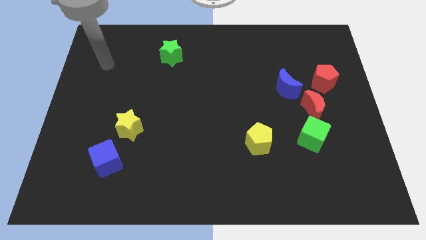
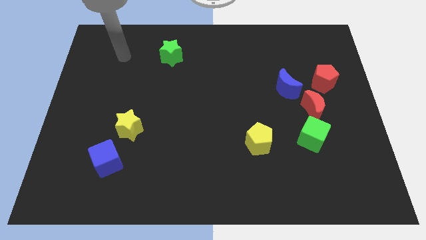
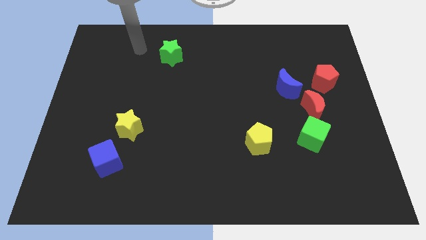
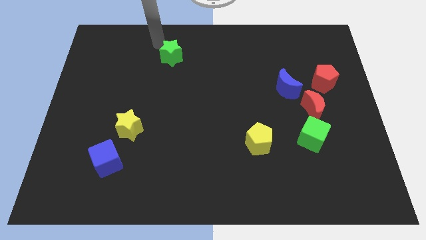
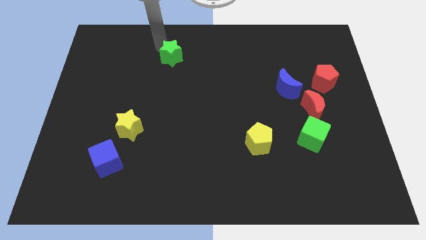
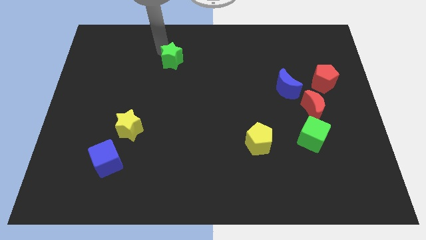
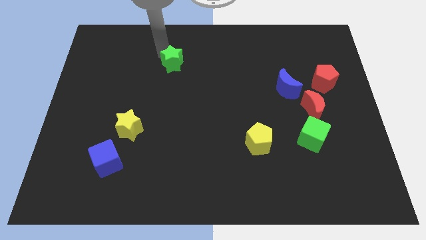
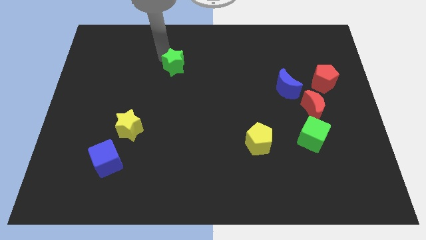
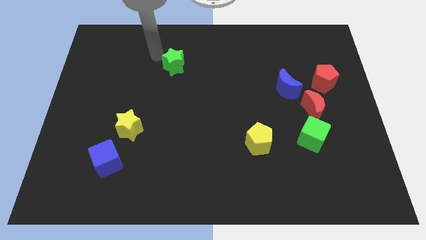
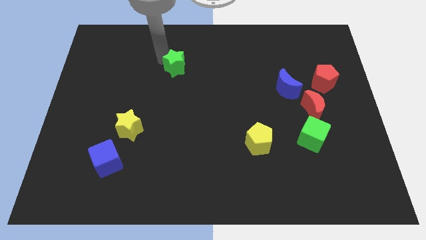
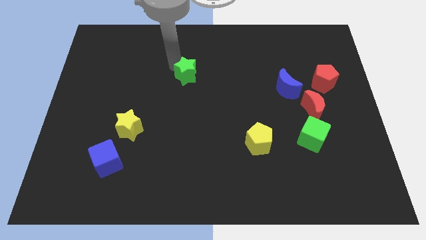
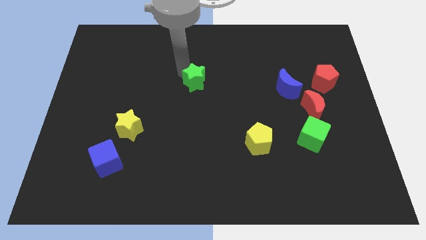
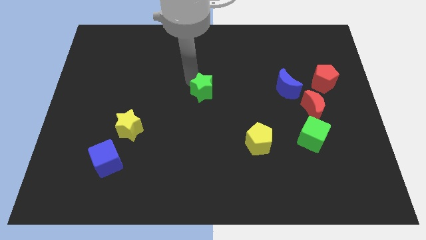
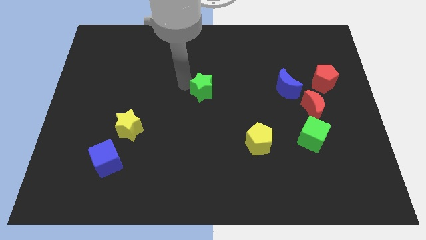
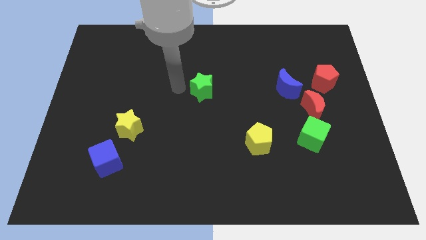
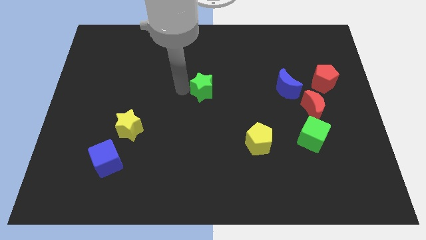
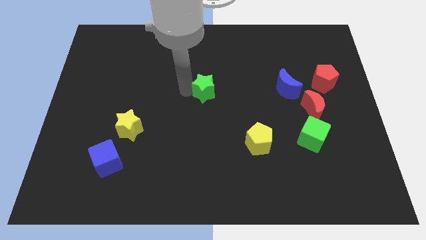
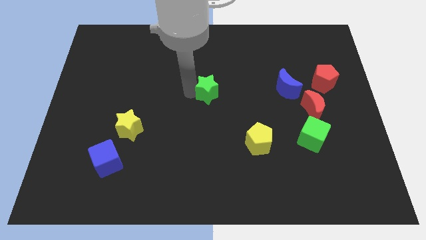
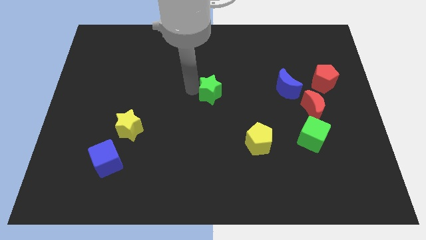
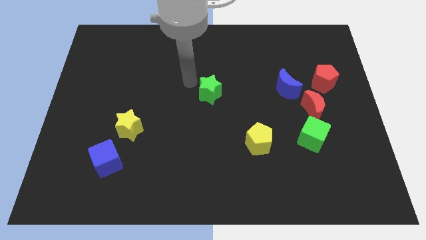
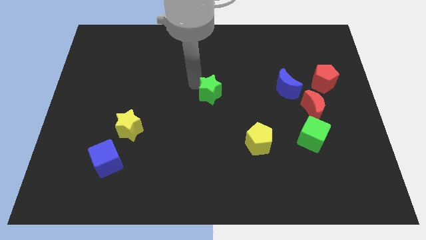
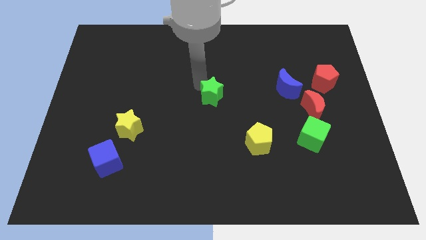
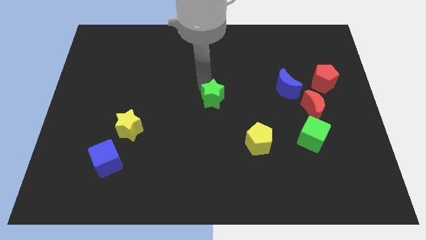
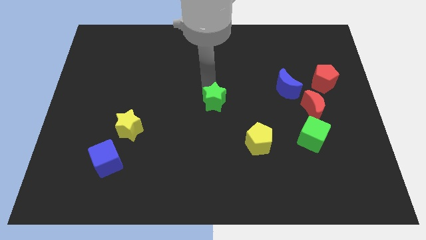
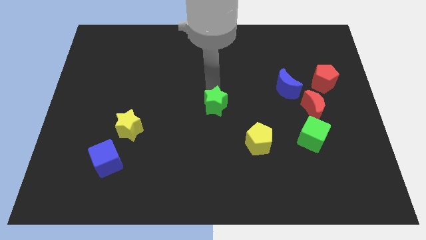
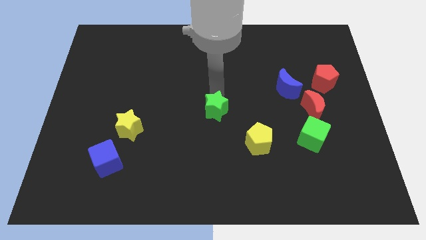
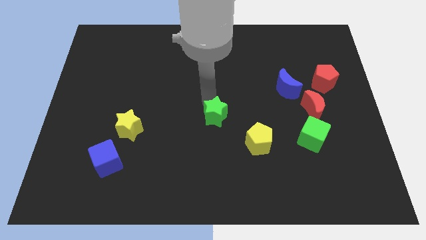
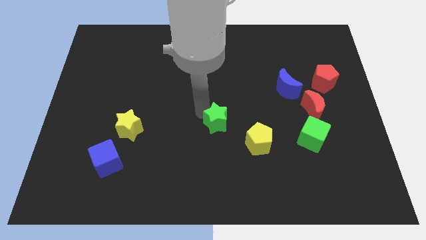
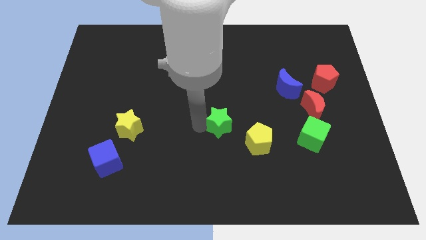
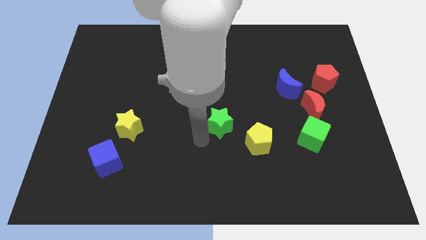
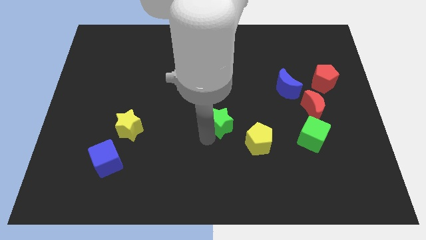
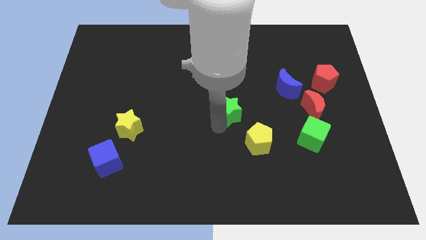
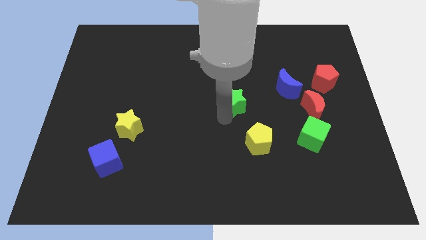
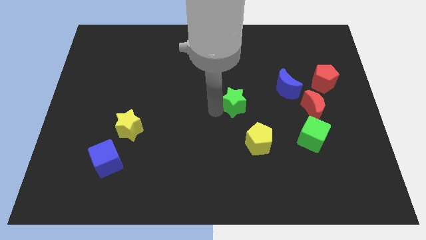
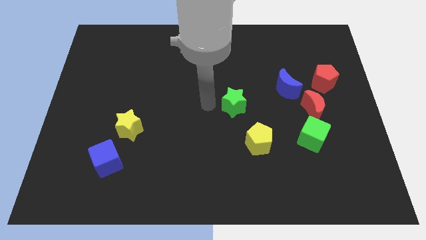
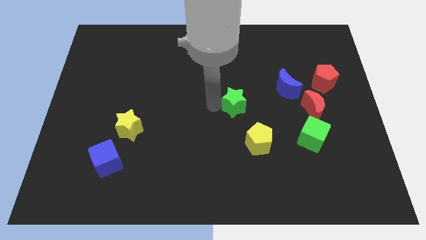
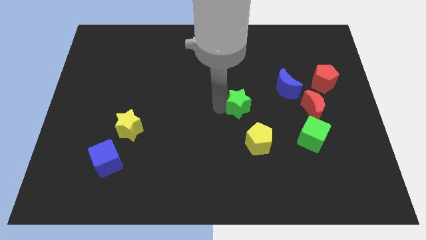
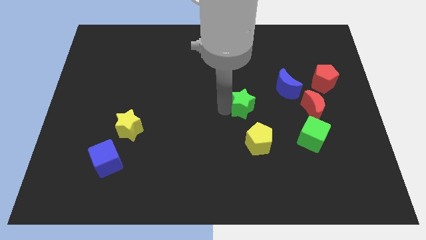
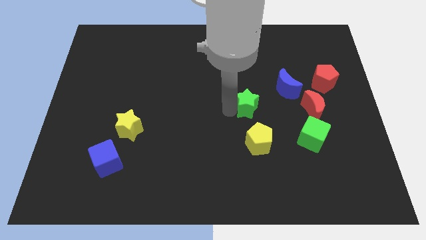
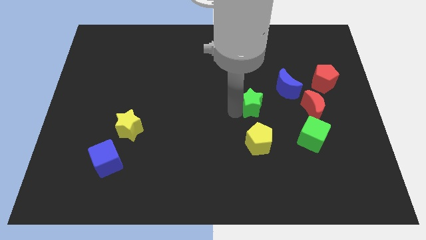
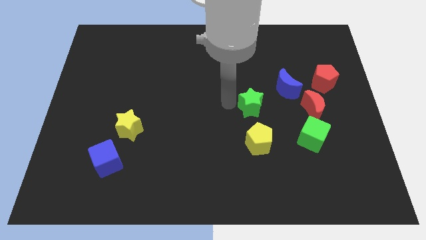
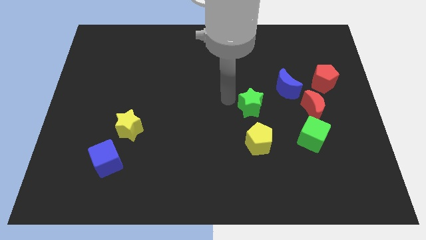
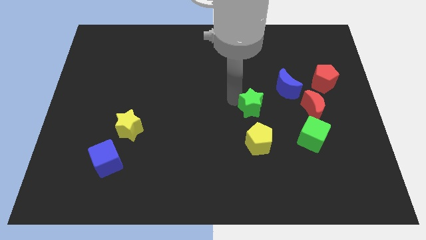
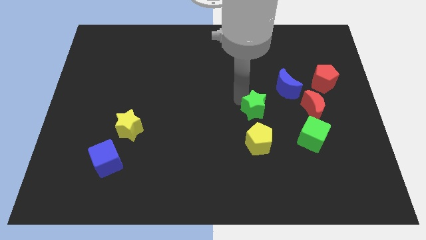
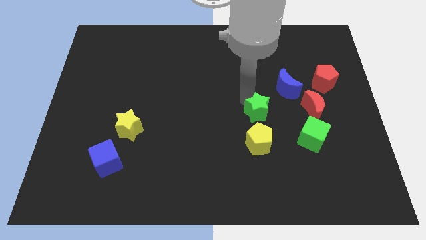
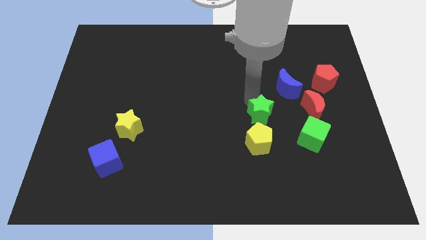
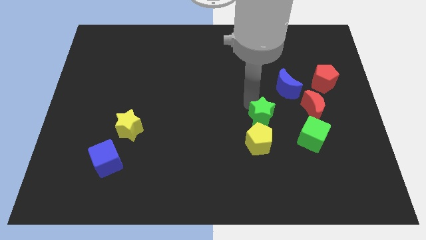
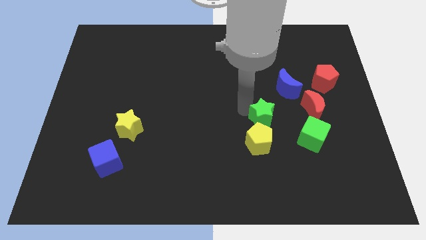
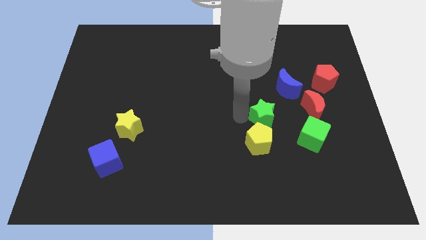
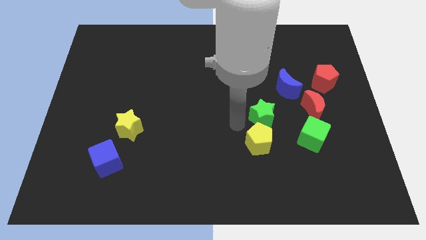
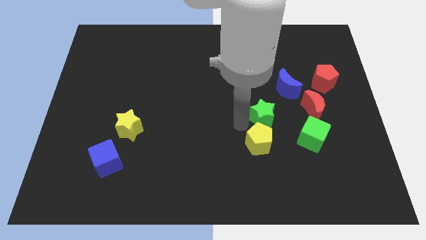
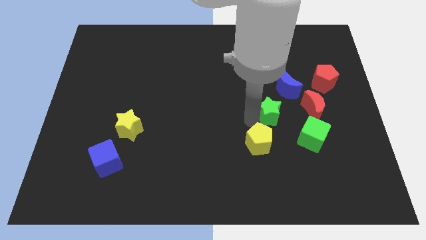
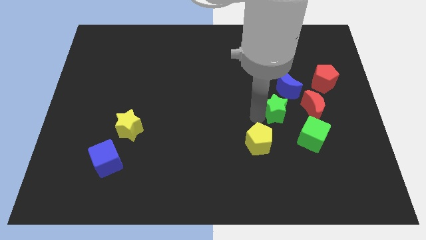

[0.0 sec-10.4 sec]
move the green star to the bottom side of the blue moon

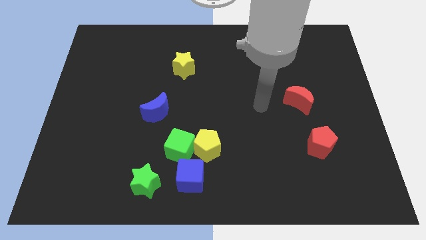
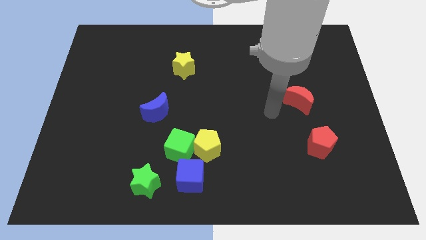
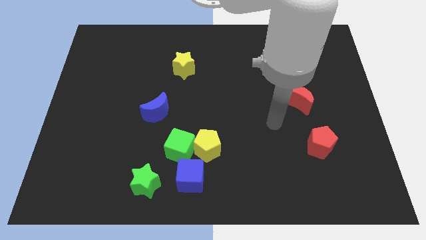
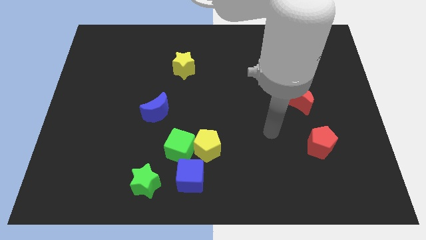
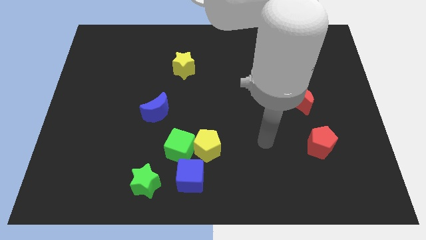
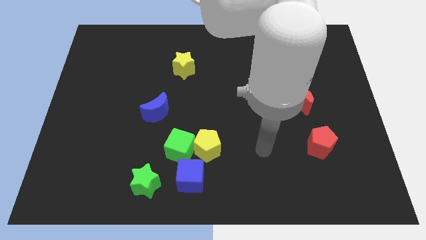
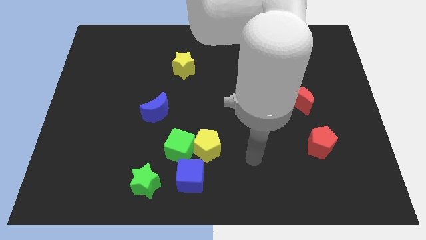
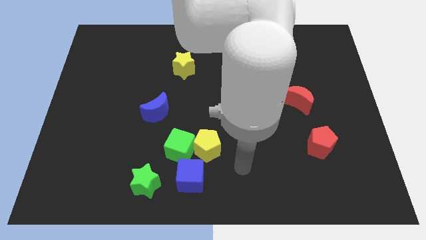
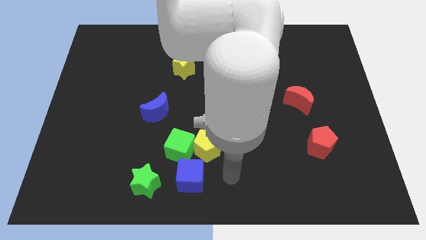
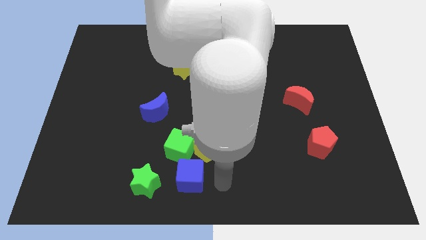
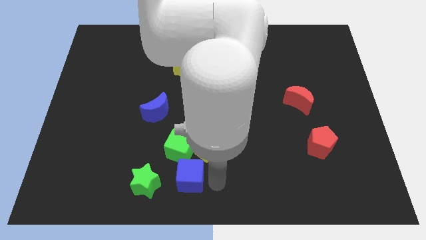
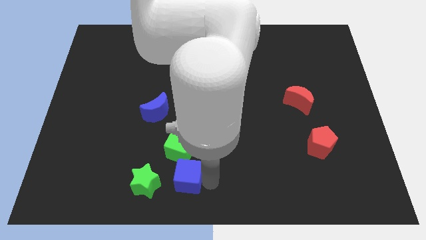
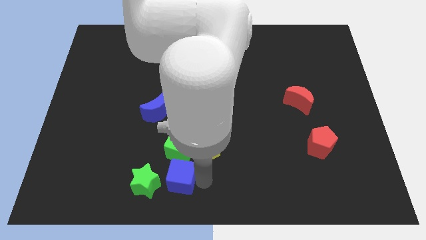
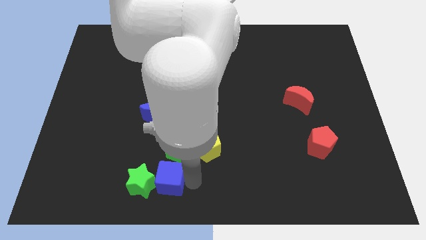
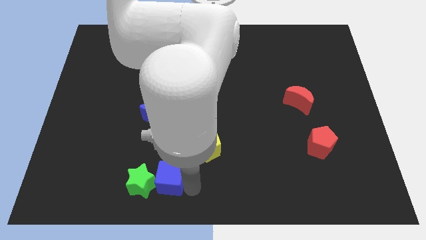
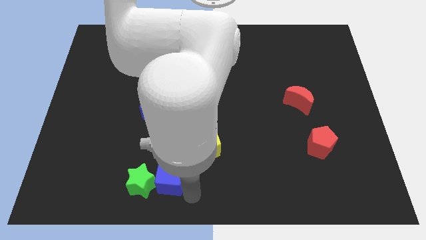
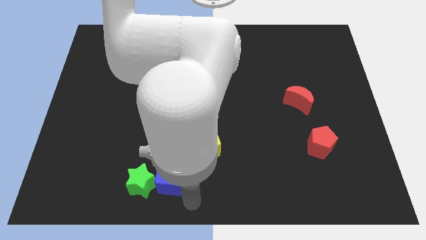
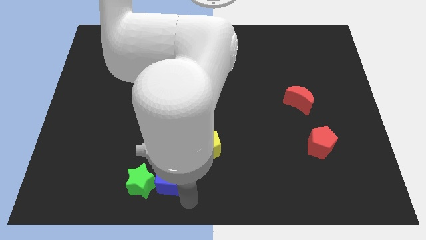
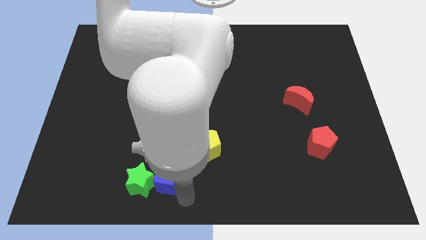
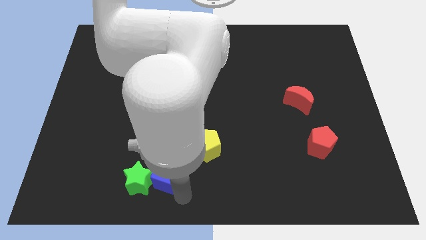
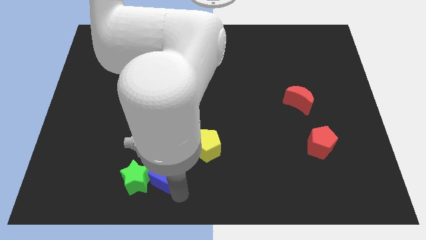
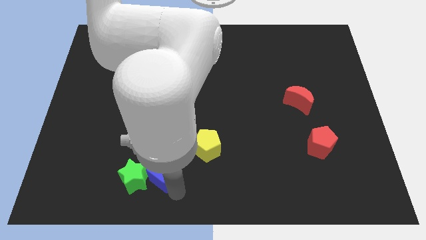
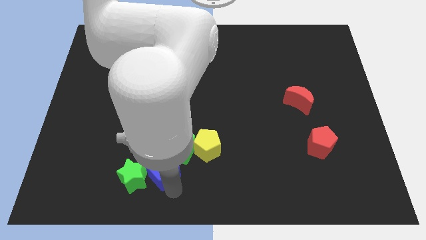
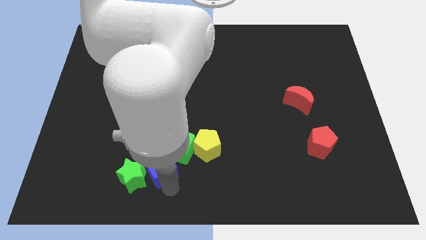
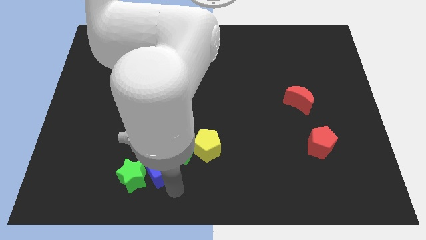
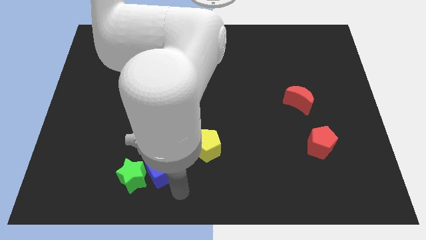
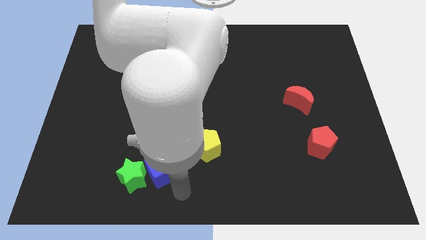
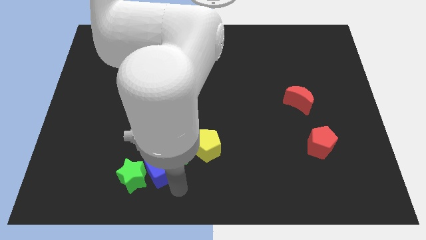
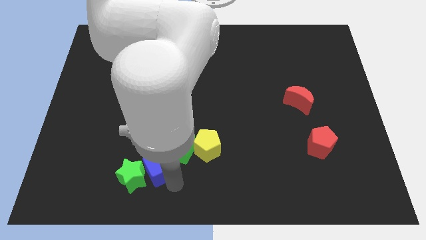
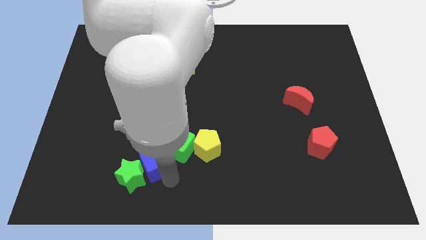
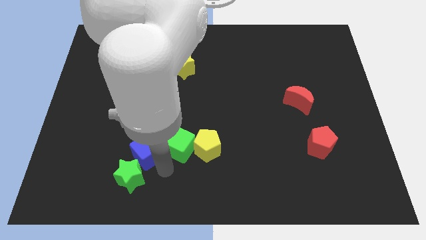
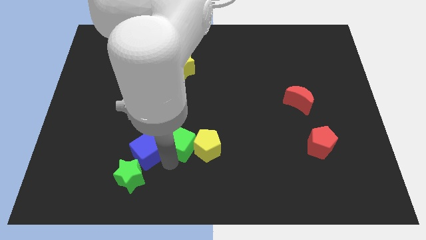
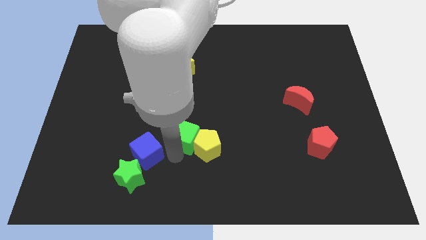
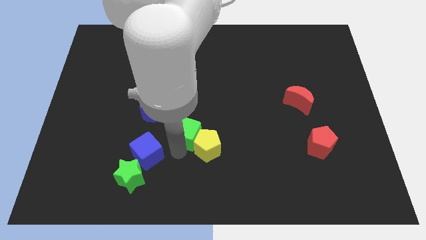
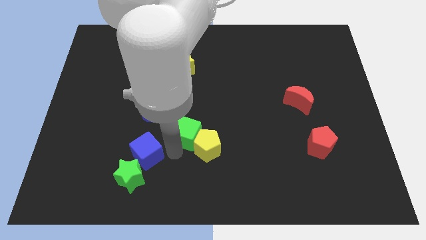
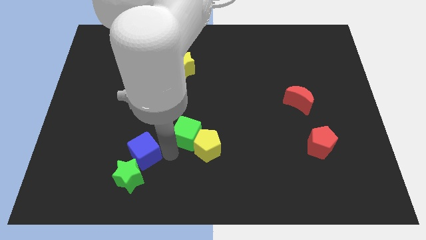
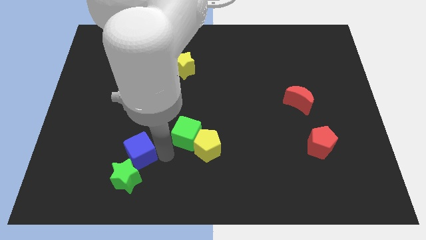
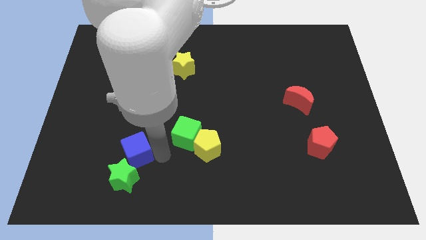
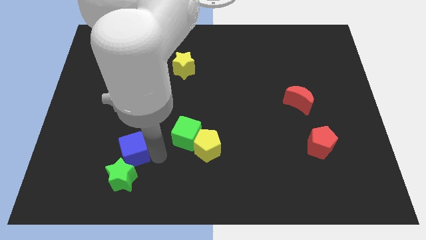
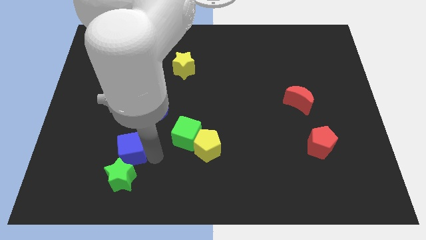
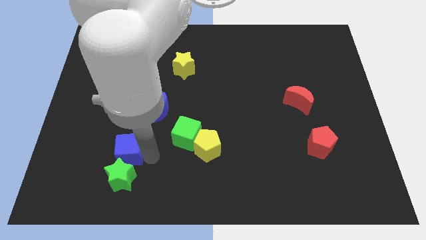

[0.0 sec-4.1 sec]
push the blue cube diagonally up and to the left of the green star
